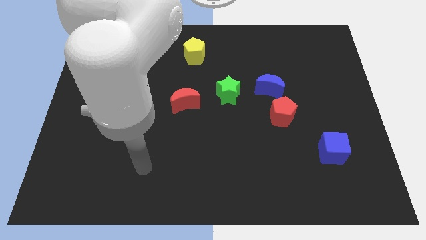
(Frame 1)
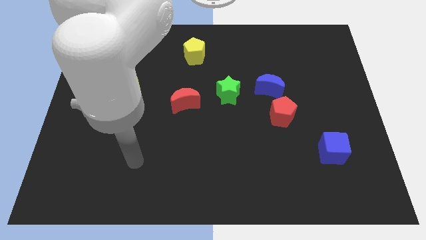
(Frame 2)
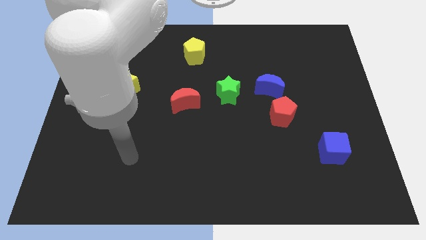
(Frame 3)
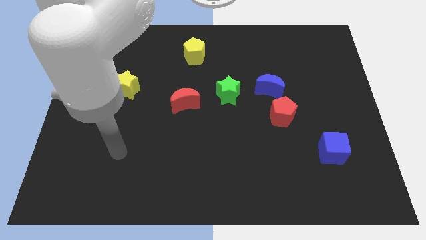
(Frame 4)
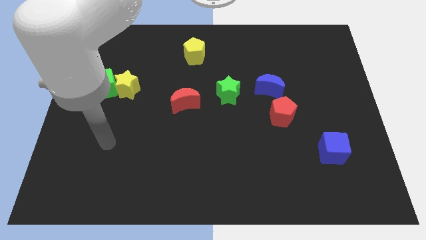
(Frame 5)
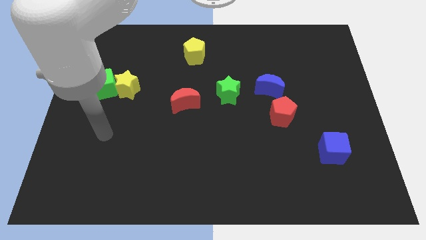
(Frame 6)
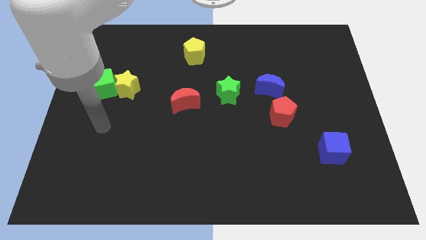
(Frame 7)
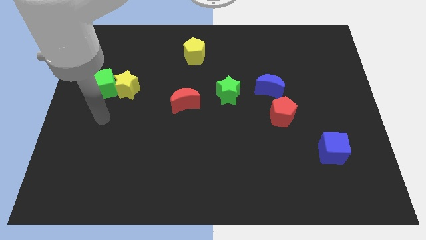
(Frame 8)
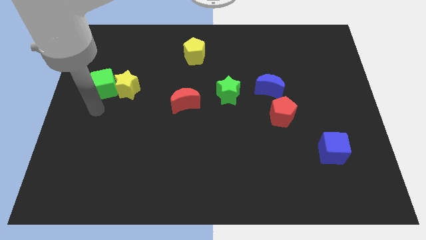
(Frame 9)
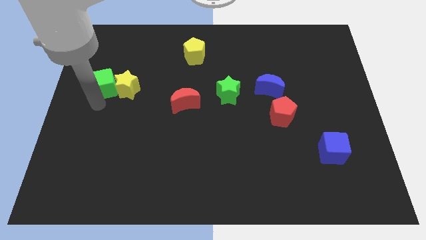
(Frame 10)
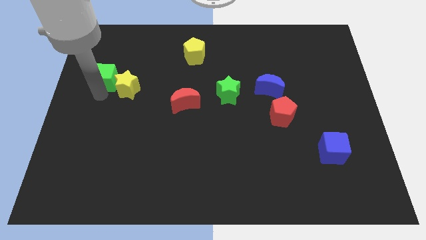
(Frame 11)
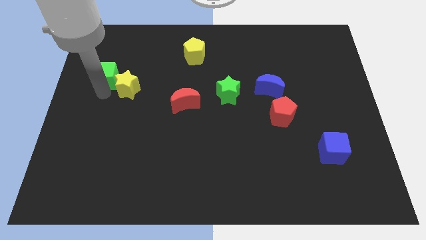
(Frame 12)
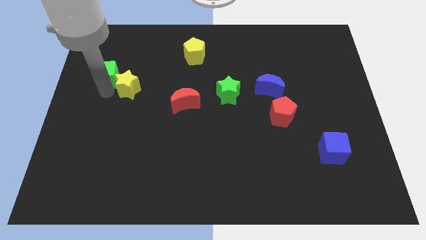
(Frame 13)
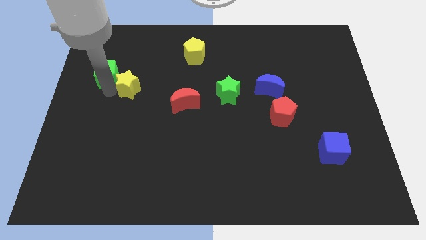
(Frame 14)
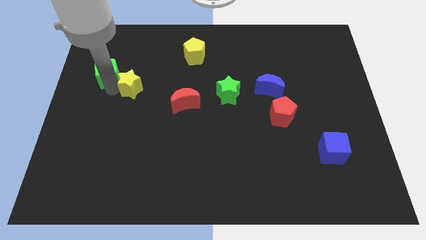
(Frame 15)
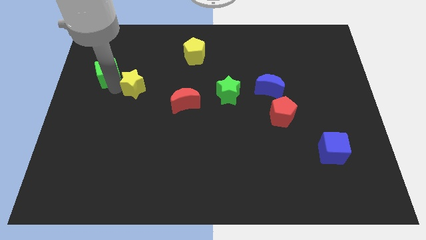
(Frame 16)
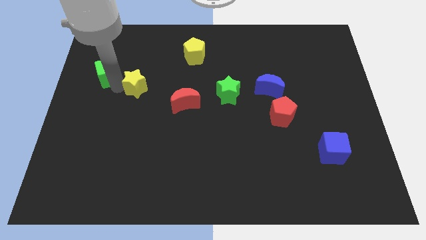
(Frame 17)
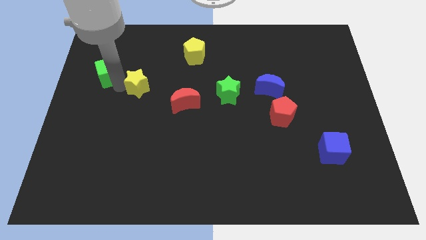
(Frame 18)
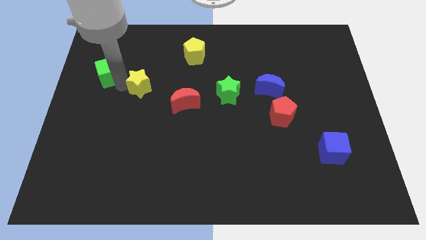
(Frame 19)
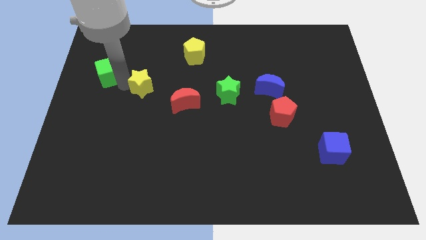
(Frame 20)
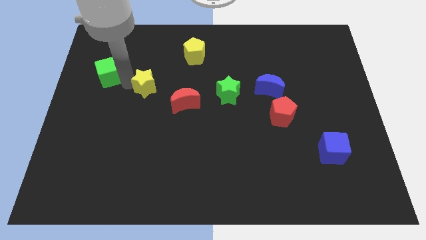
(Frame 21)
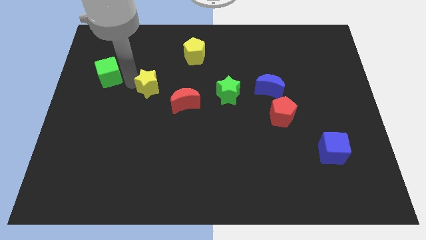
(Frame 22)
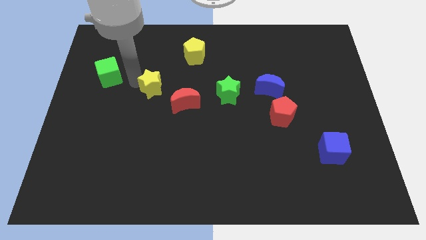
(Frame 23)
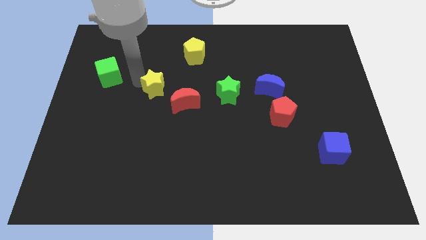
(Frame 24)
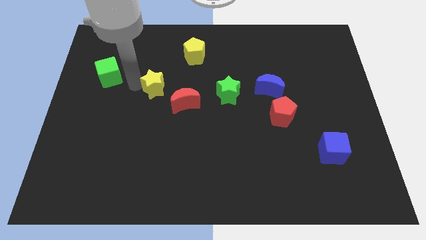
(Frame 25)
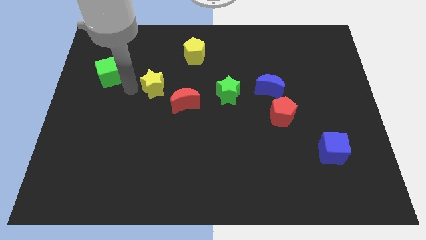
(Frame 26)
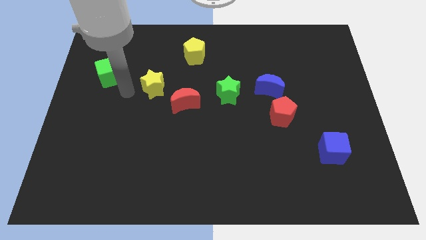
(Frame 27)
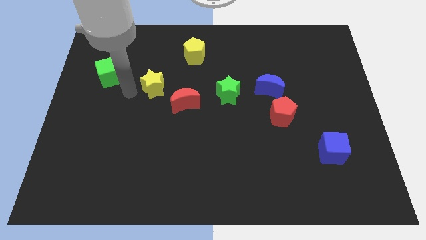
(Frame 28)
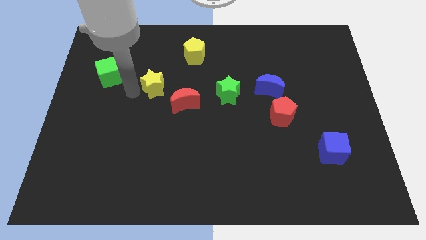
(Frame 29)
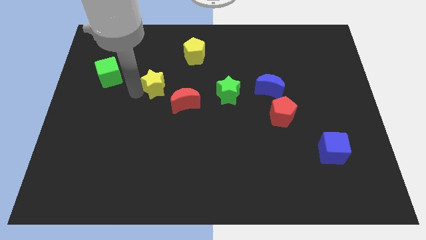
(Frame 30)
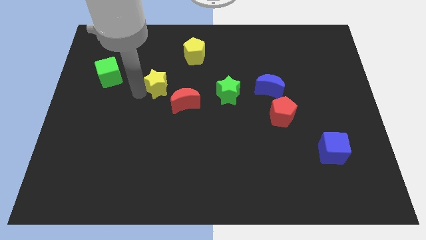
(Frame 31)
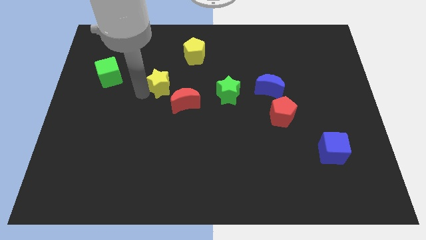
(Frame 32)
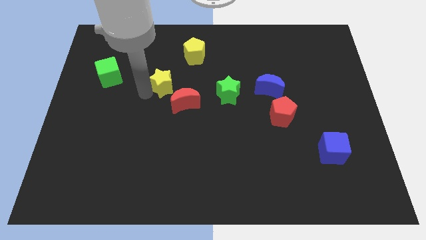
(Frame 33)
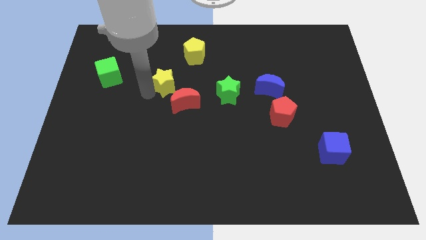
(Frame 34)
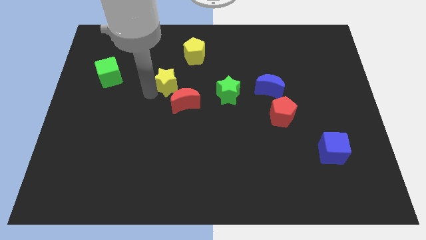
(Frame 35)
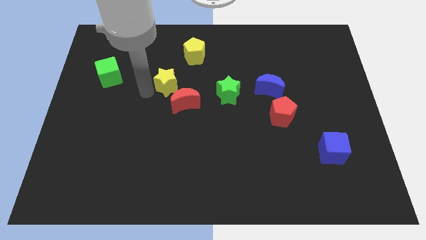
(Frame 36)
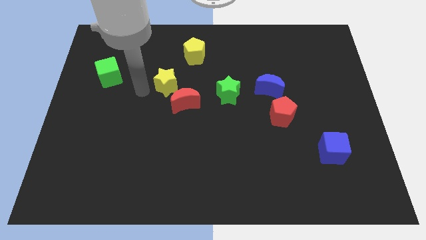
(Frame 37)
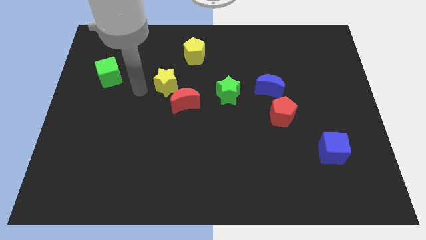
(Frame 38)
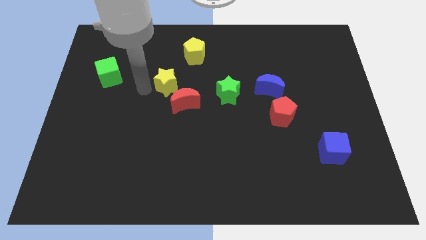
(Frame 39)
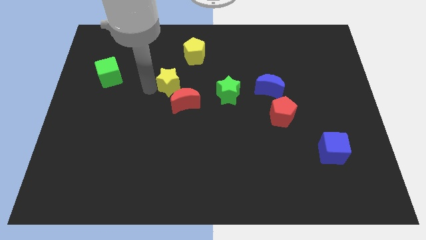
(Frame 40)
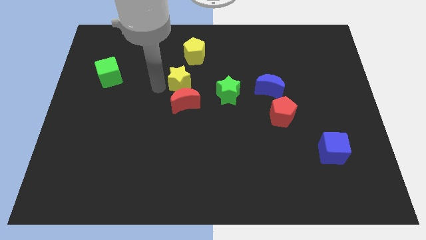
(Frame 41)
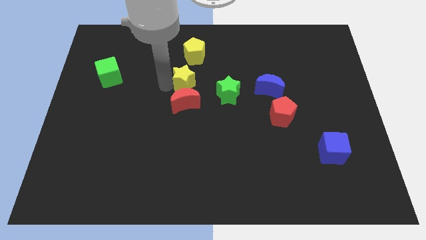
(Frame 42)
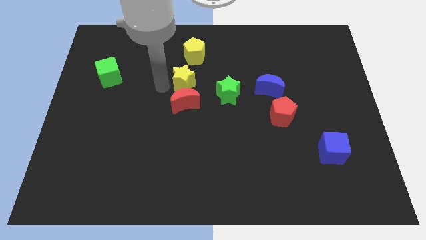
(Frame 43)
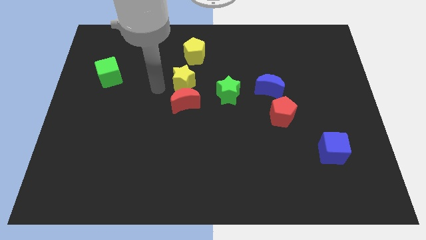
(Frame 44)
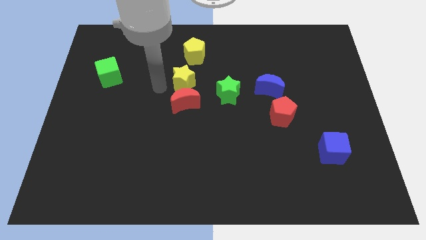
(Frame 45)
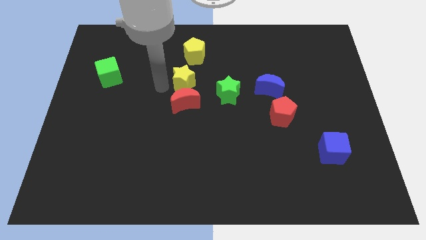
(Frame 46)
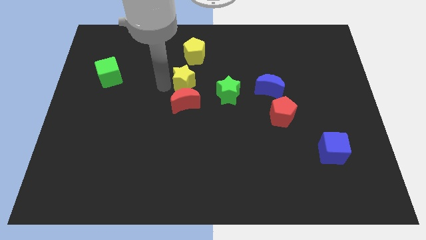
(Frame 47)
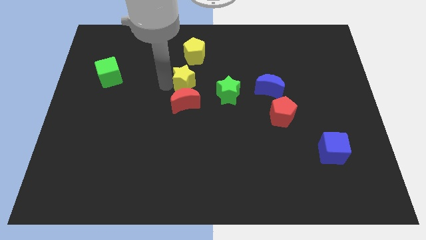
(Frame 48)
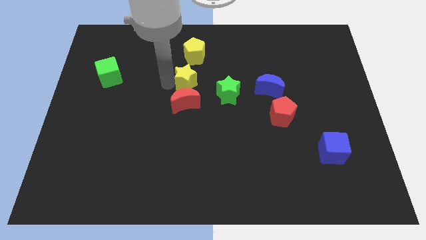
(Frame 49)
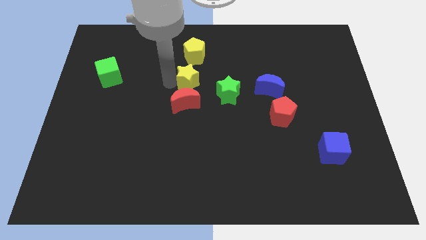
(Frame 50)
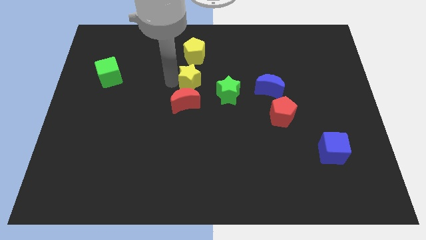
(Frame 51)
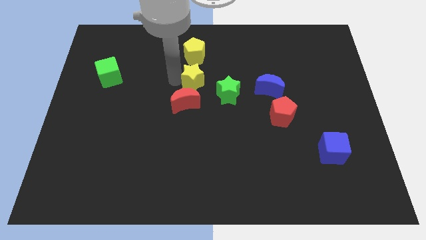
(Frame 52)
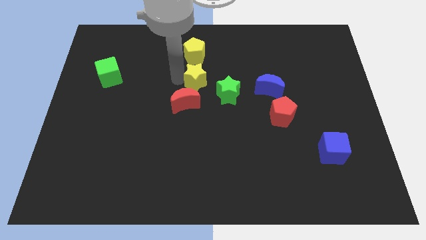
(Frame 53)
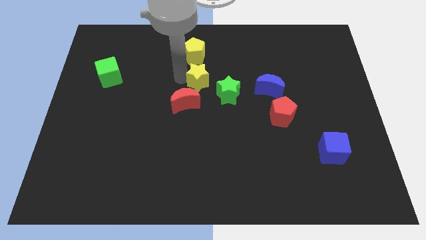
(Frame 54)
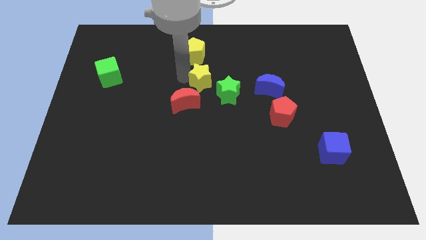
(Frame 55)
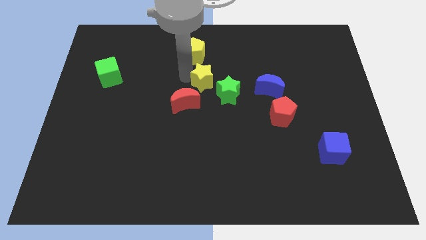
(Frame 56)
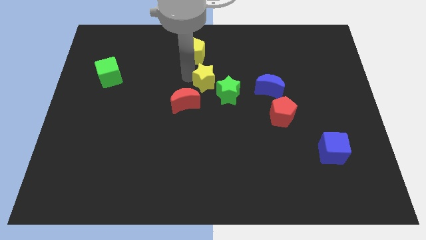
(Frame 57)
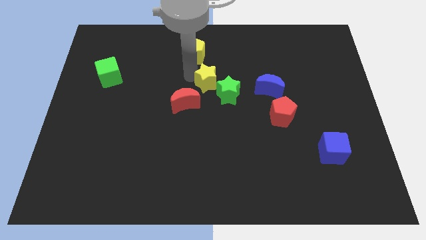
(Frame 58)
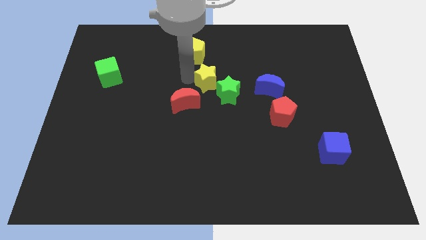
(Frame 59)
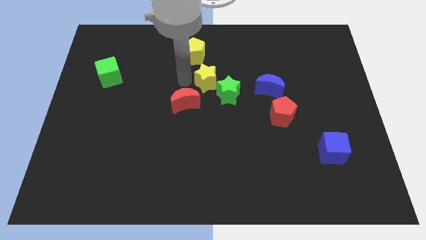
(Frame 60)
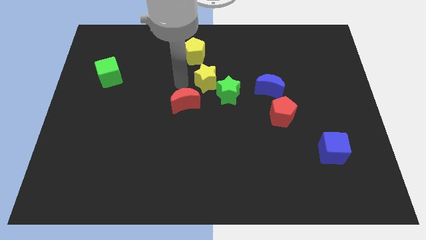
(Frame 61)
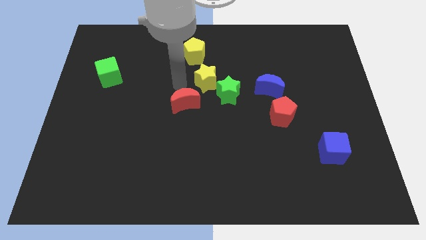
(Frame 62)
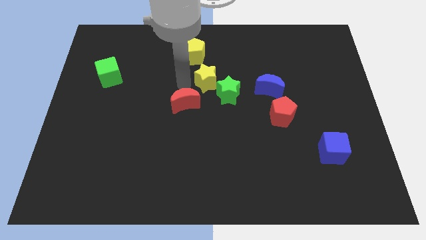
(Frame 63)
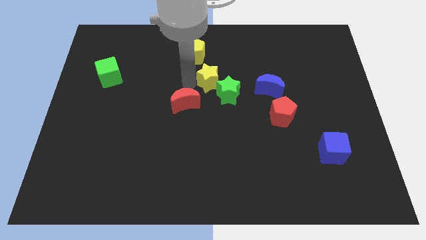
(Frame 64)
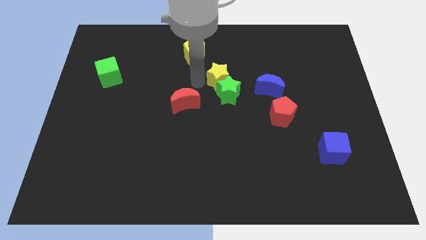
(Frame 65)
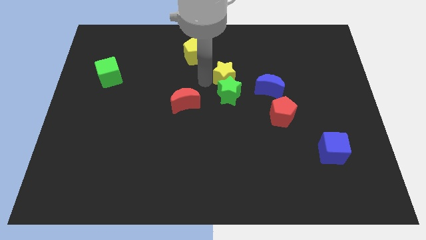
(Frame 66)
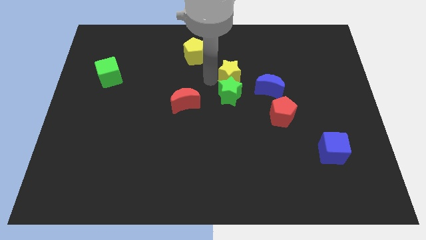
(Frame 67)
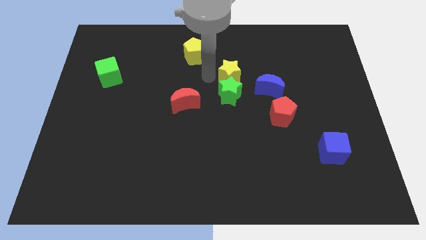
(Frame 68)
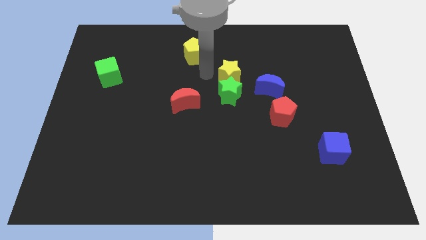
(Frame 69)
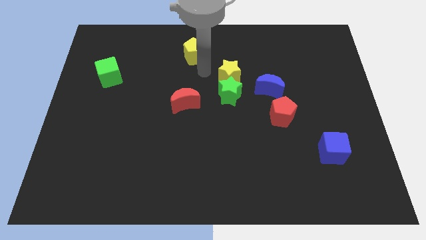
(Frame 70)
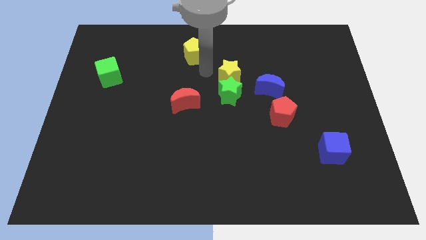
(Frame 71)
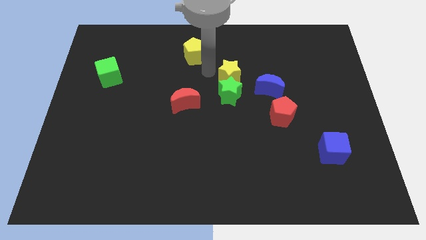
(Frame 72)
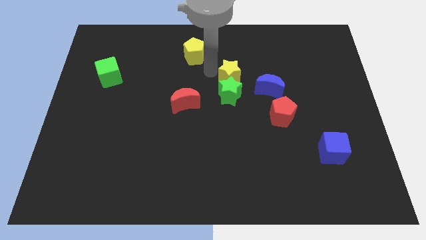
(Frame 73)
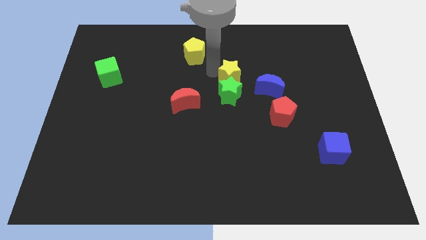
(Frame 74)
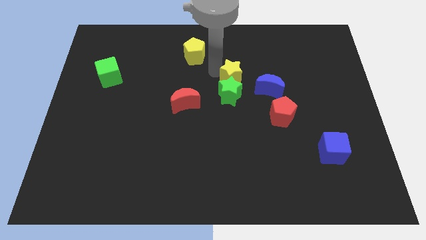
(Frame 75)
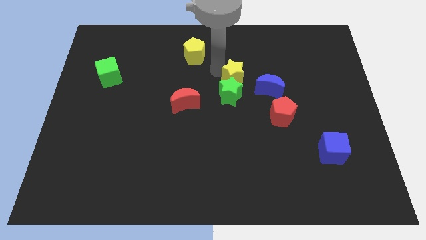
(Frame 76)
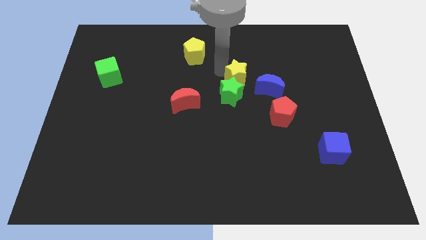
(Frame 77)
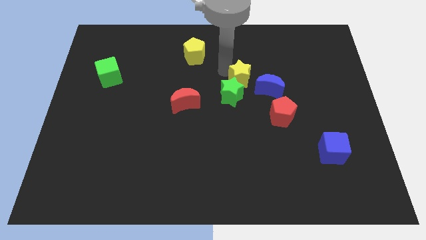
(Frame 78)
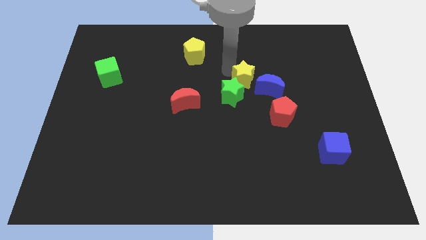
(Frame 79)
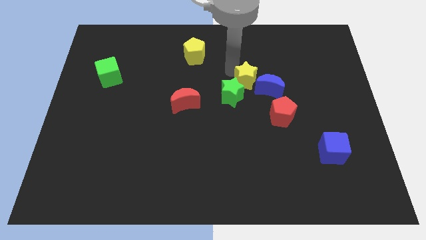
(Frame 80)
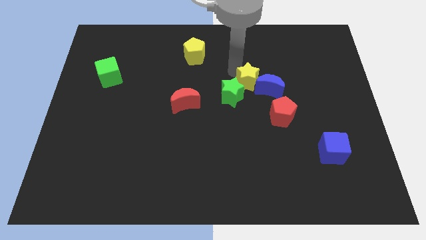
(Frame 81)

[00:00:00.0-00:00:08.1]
move the yellow star close to the blue moon
